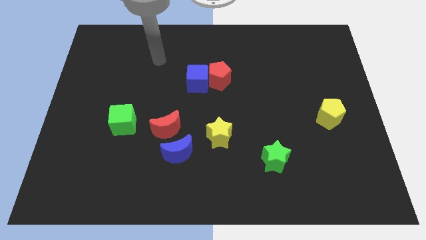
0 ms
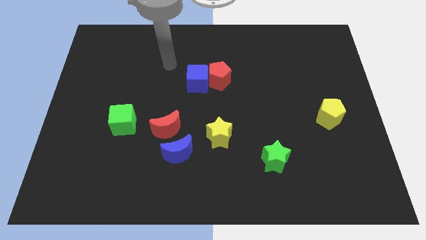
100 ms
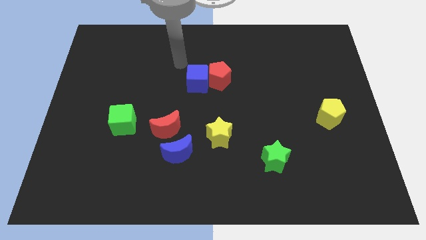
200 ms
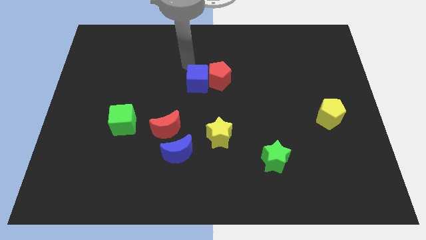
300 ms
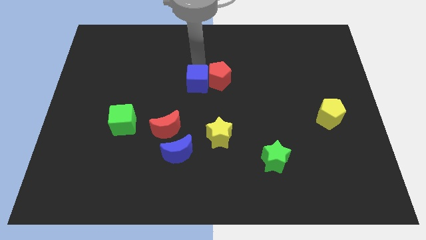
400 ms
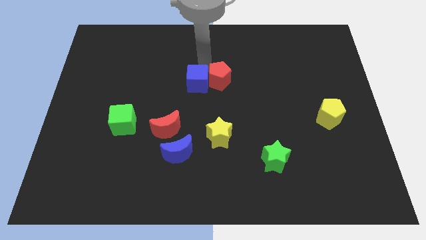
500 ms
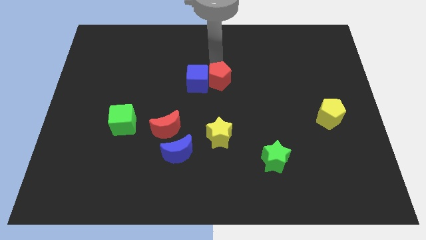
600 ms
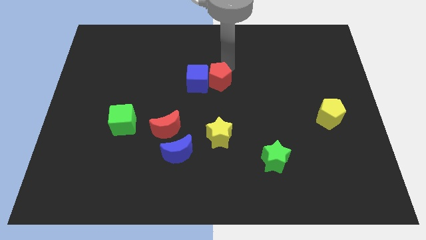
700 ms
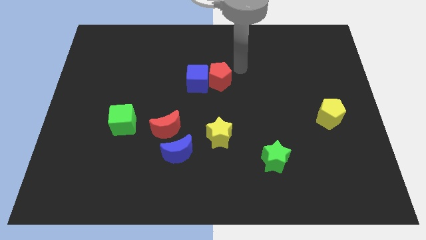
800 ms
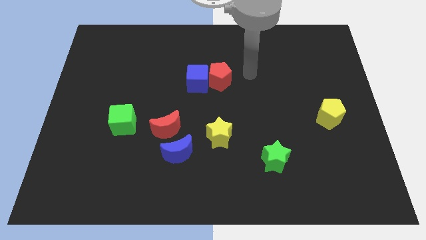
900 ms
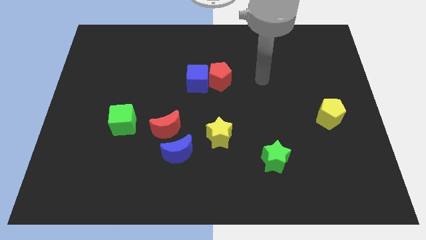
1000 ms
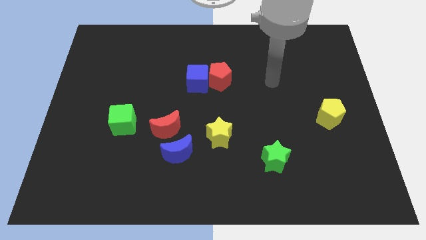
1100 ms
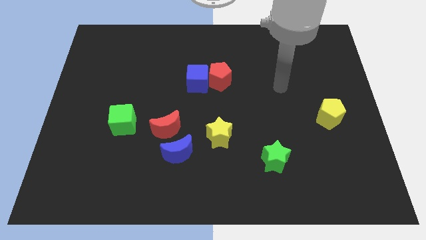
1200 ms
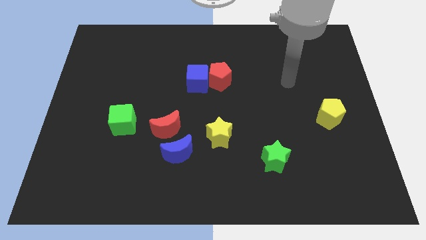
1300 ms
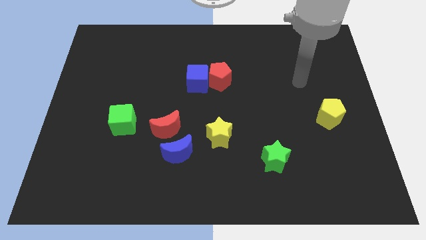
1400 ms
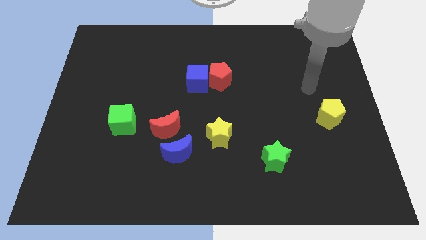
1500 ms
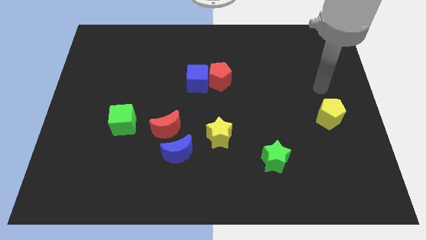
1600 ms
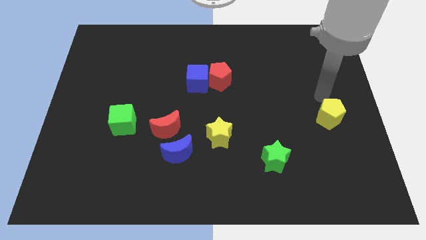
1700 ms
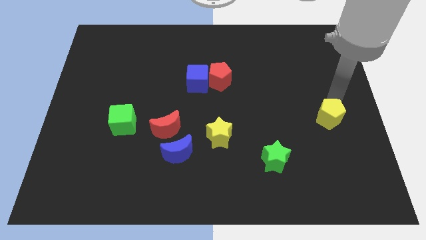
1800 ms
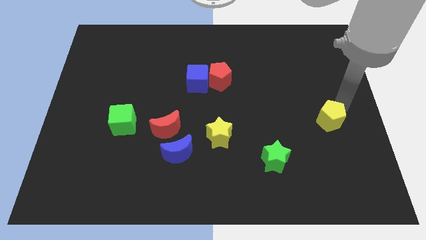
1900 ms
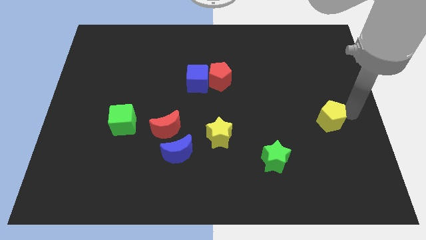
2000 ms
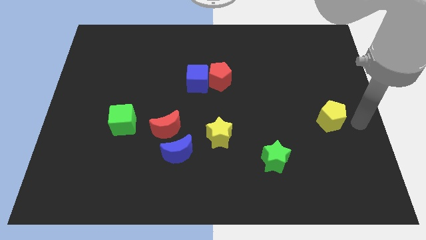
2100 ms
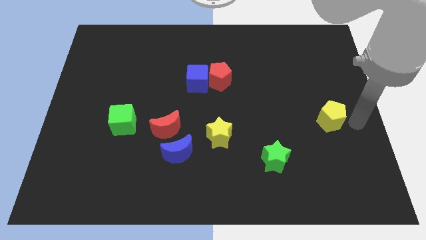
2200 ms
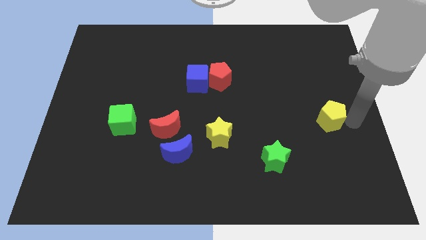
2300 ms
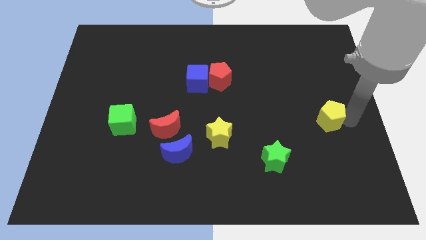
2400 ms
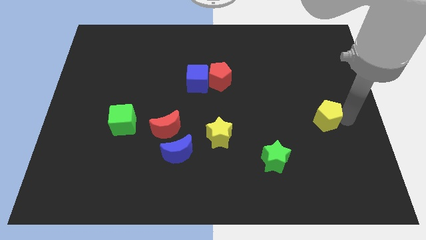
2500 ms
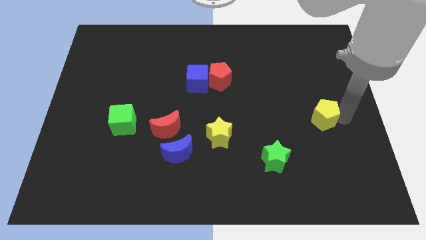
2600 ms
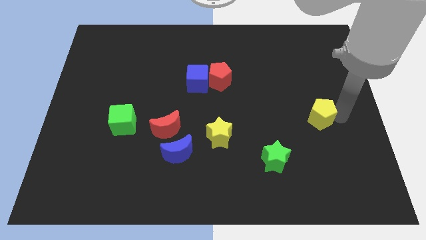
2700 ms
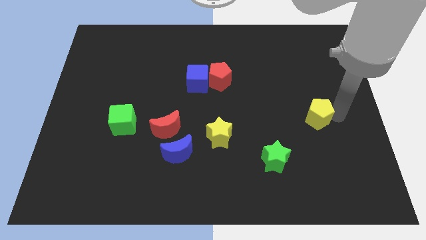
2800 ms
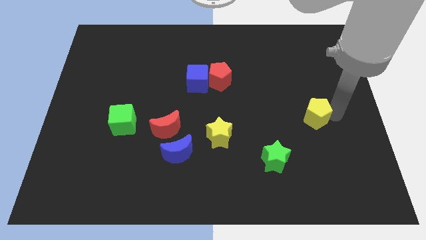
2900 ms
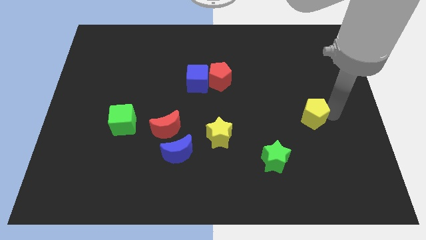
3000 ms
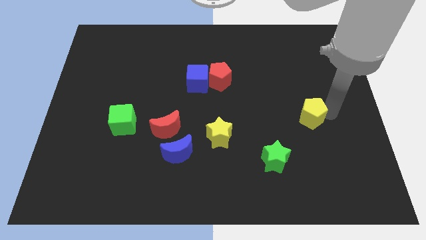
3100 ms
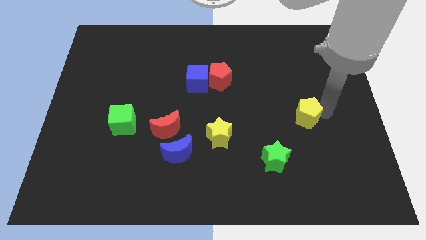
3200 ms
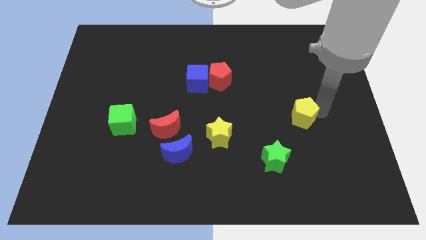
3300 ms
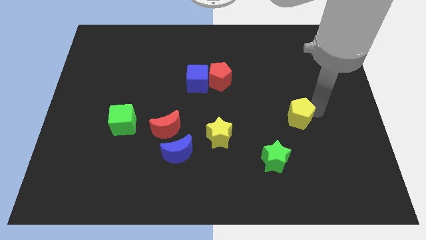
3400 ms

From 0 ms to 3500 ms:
push the yellow pentagon a little bit left

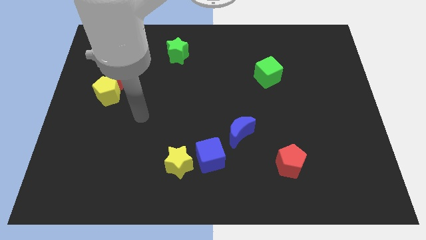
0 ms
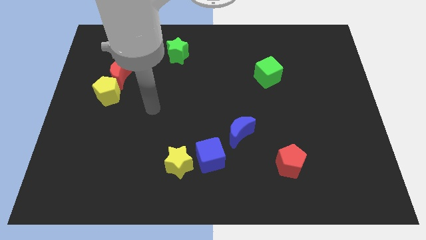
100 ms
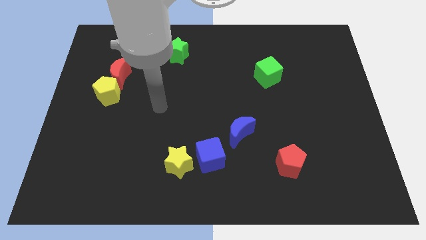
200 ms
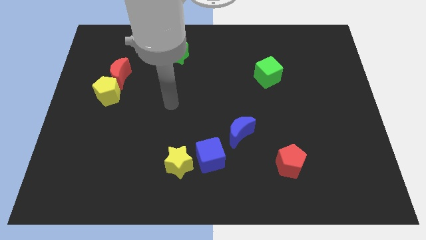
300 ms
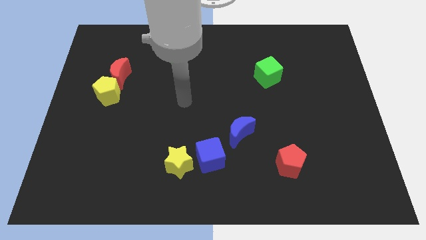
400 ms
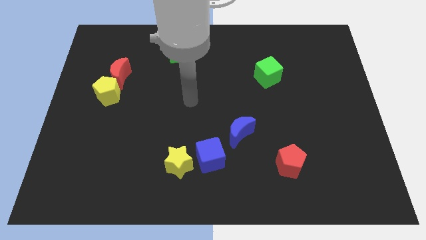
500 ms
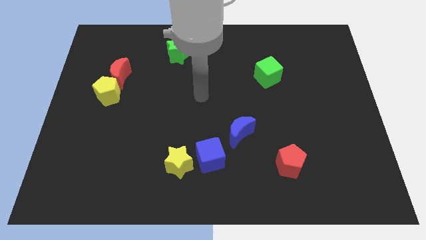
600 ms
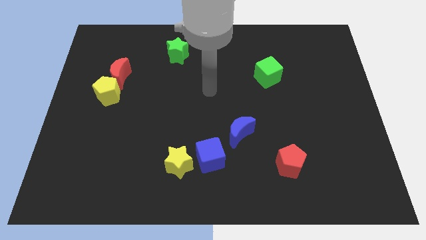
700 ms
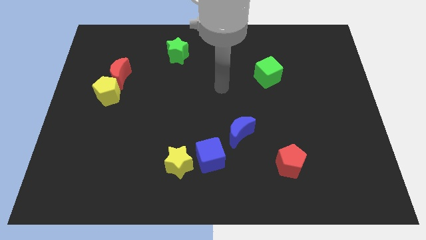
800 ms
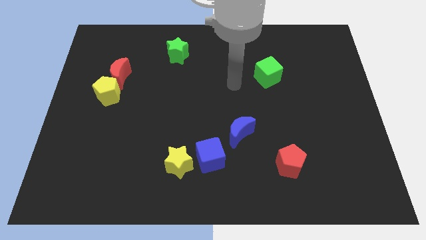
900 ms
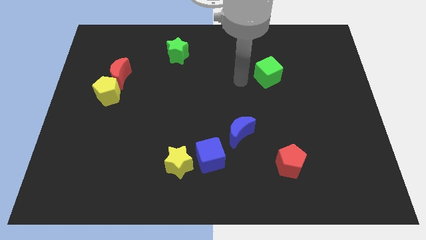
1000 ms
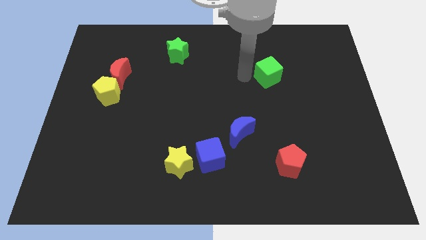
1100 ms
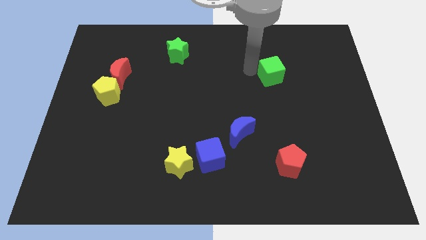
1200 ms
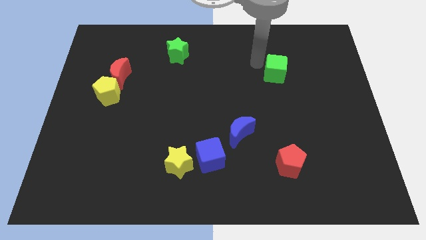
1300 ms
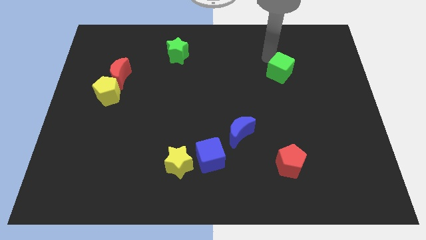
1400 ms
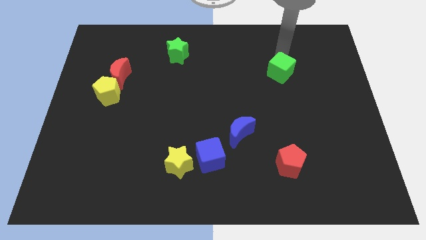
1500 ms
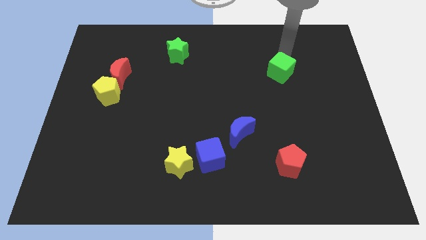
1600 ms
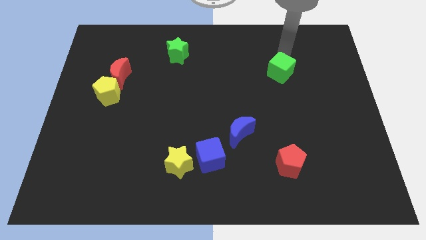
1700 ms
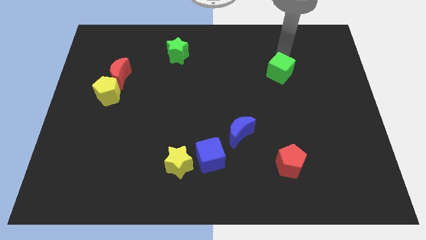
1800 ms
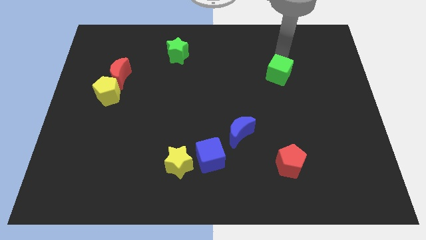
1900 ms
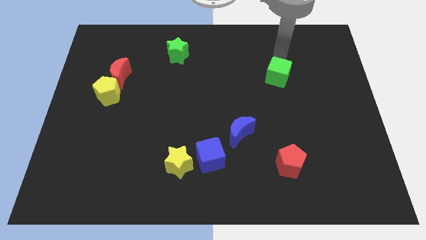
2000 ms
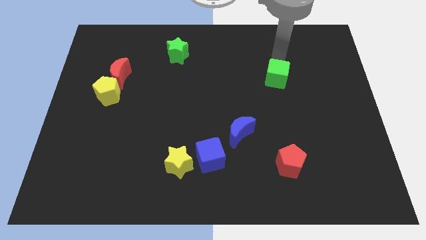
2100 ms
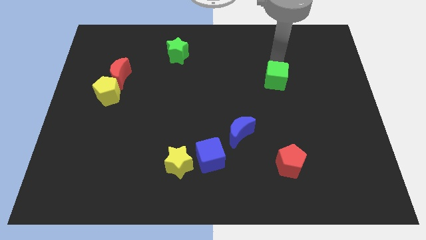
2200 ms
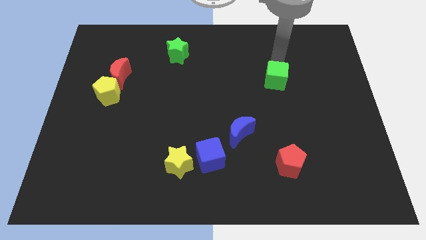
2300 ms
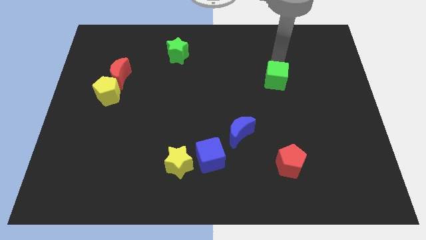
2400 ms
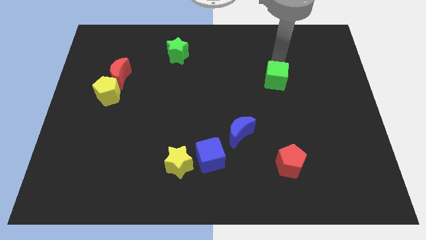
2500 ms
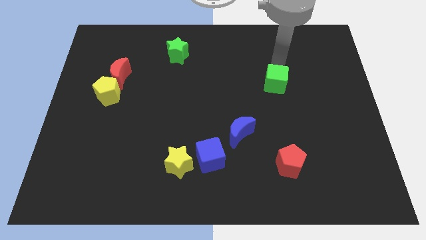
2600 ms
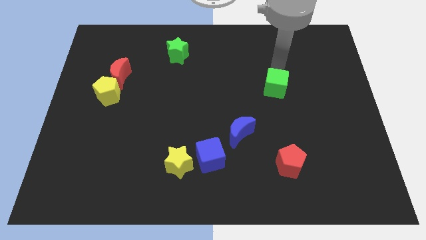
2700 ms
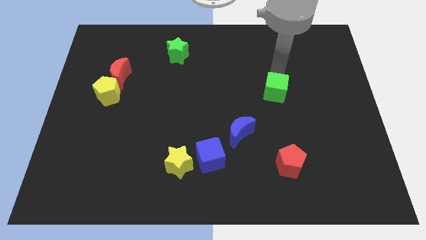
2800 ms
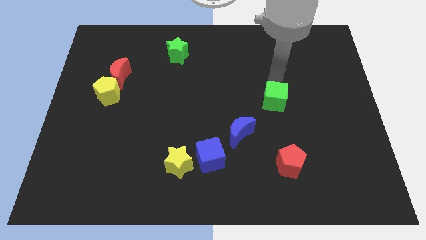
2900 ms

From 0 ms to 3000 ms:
slightly push the green cube downwards

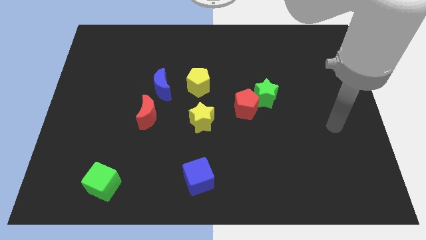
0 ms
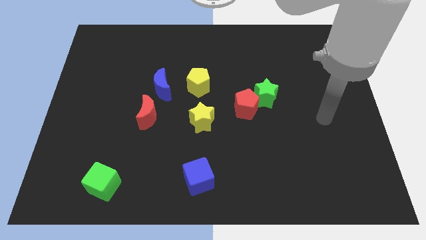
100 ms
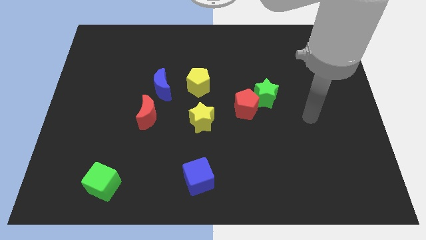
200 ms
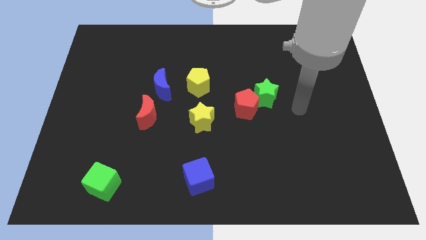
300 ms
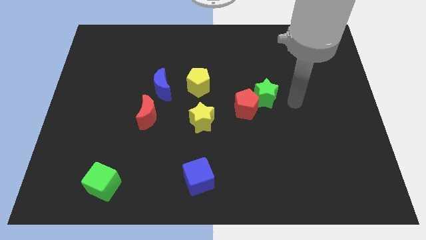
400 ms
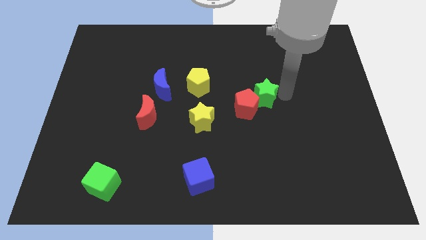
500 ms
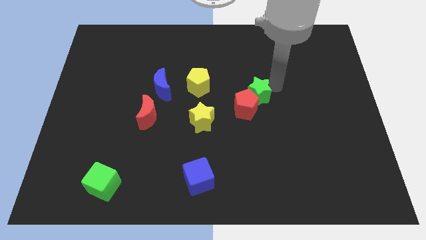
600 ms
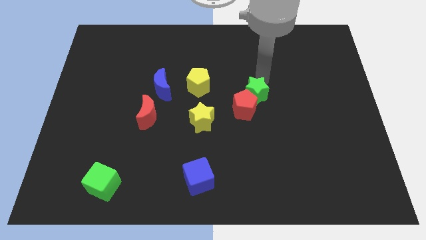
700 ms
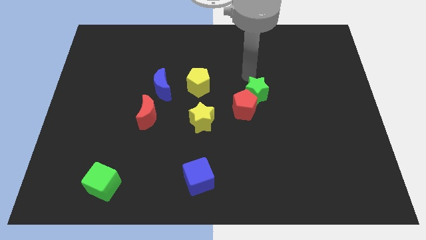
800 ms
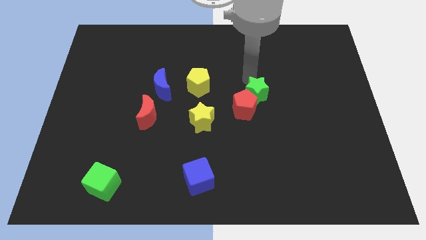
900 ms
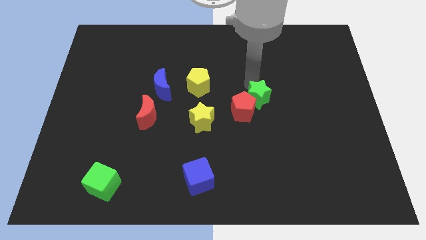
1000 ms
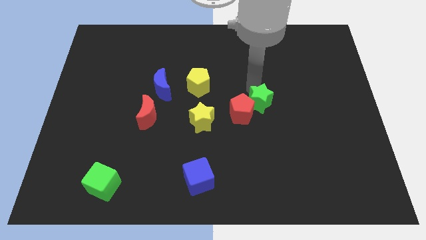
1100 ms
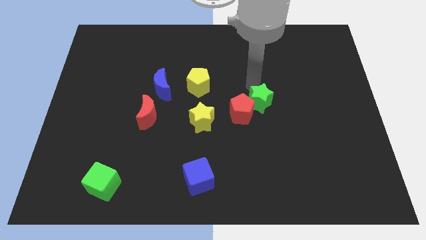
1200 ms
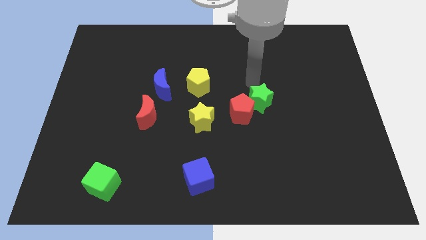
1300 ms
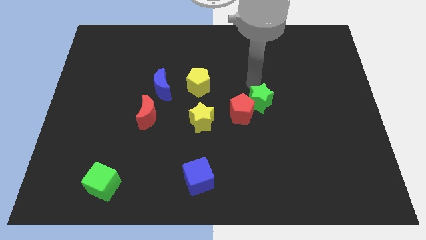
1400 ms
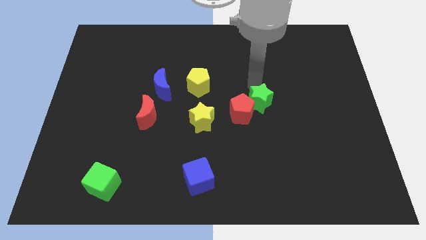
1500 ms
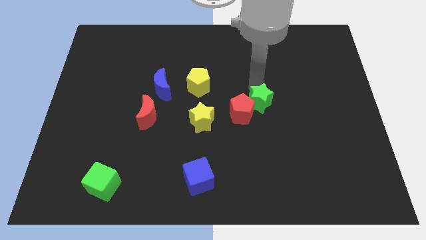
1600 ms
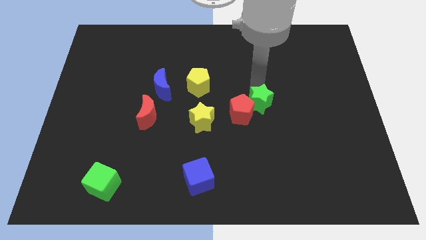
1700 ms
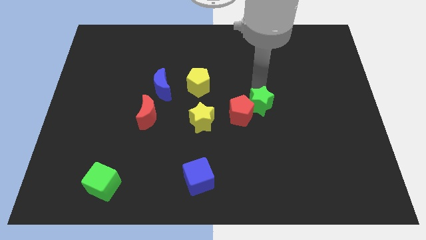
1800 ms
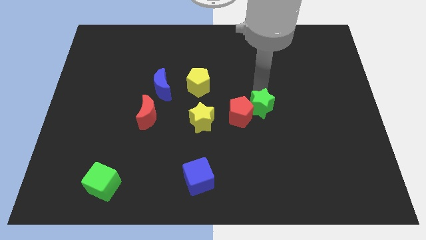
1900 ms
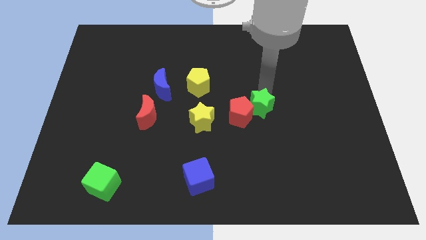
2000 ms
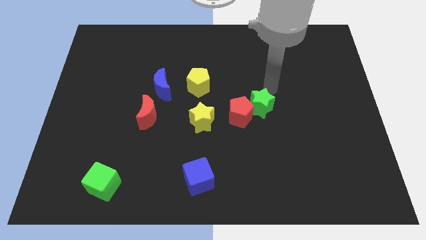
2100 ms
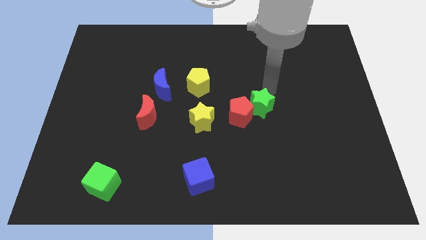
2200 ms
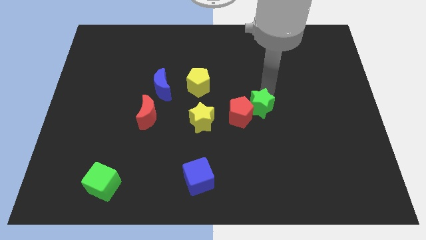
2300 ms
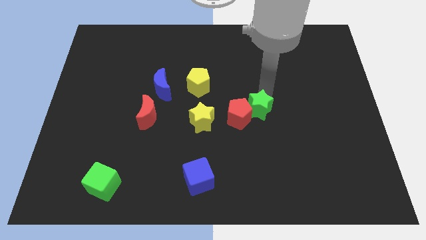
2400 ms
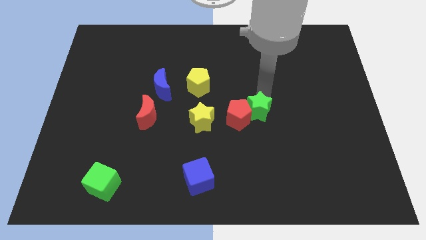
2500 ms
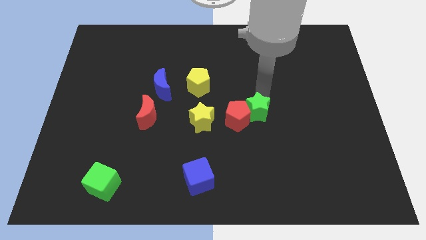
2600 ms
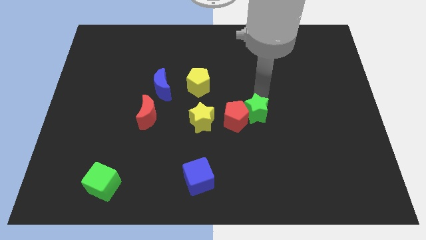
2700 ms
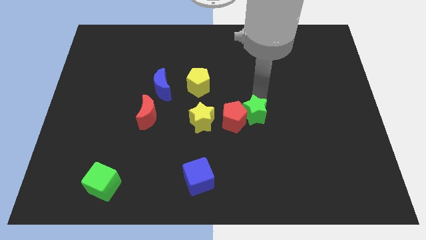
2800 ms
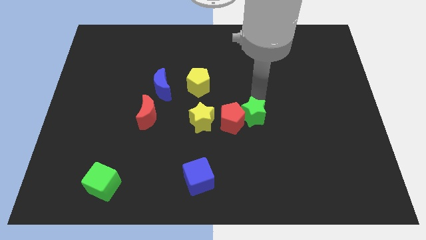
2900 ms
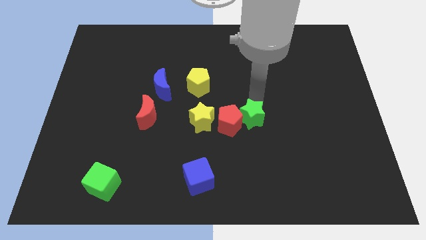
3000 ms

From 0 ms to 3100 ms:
slightly slide the green star downwards and then to the left
